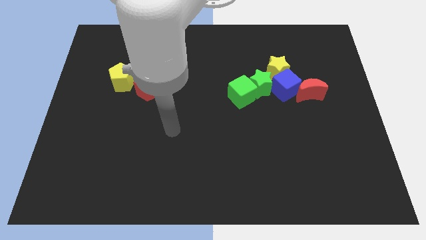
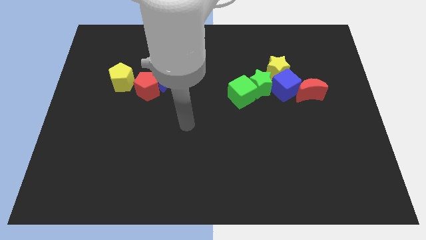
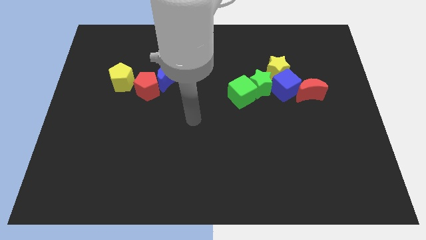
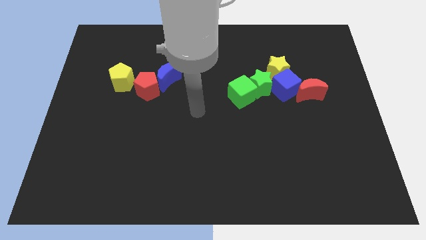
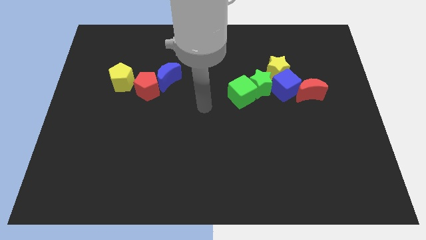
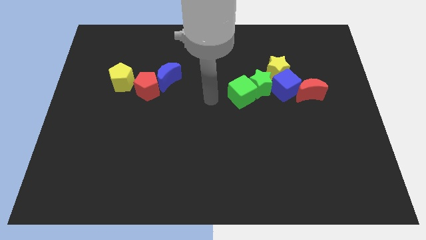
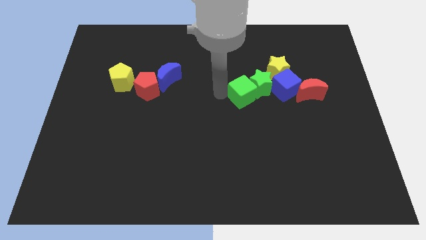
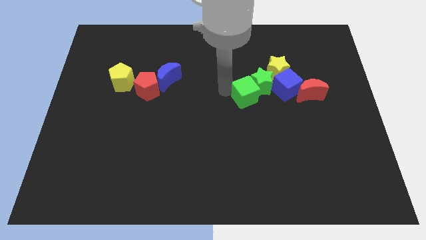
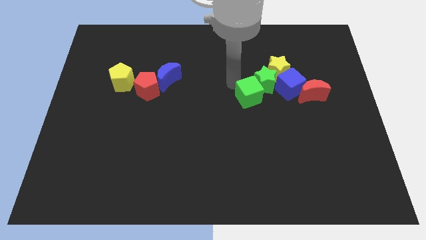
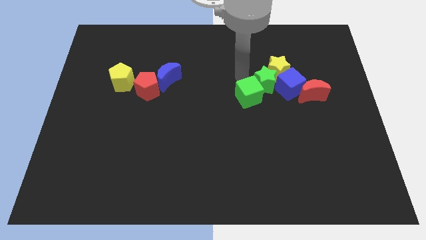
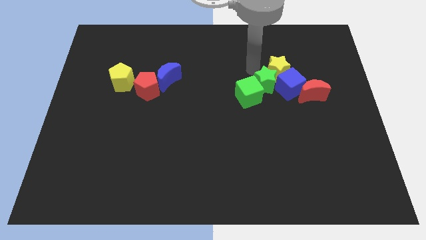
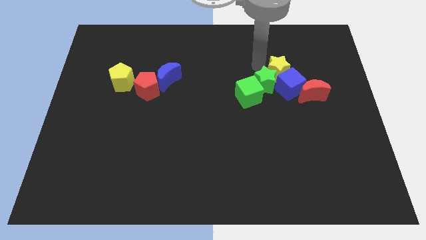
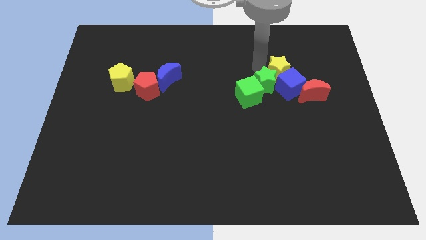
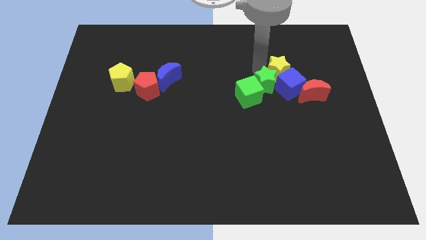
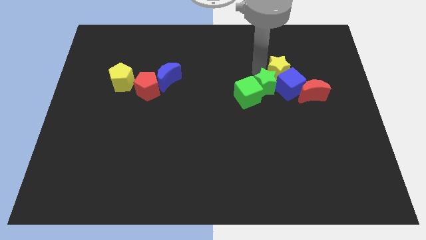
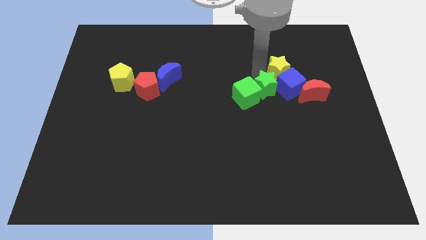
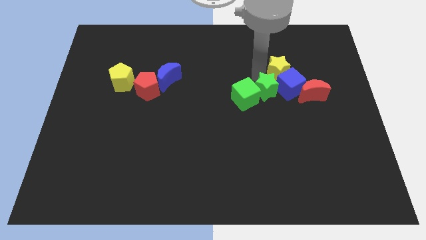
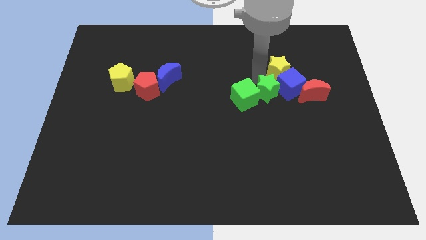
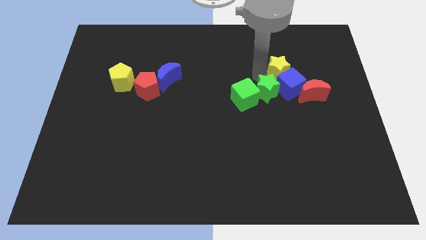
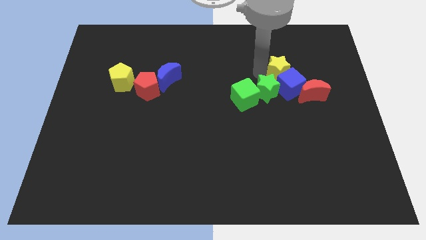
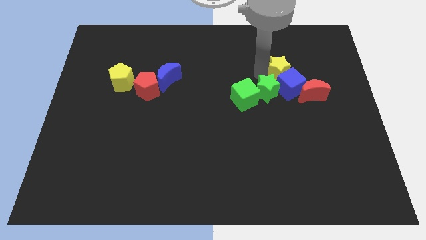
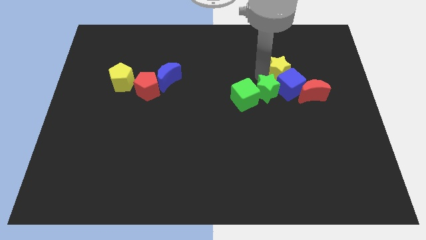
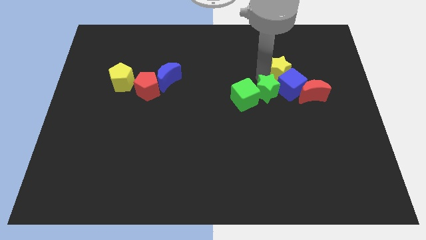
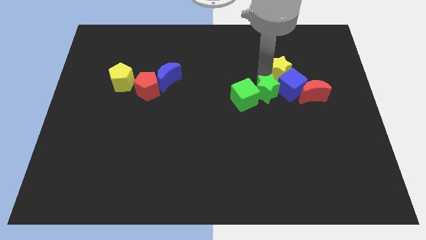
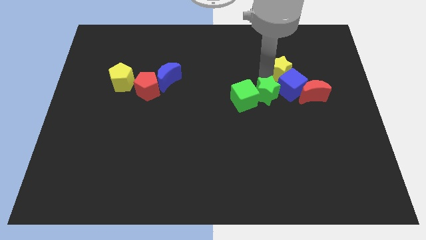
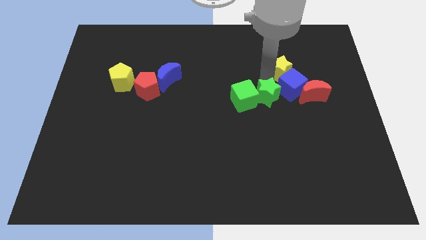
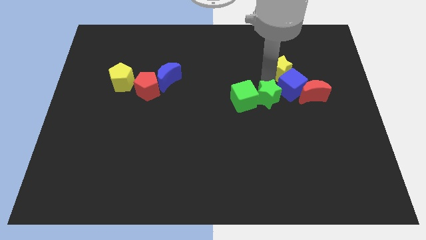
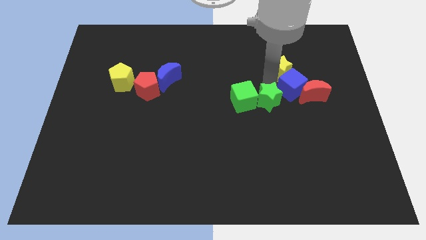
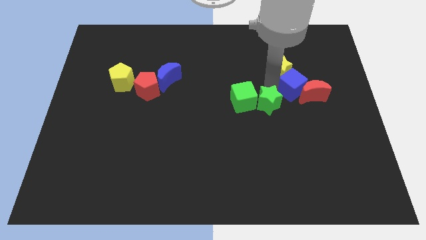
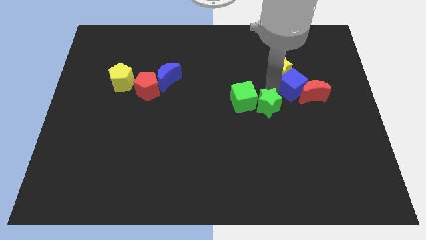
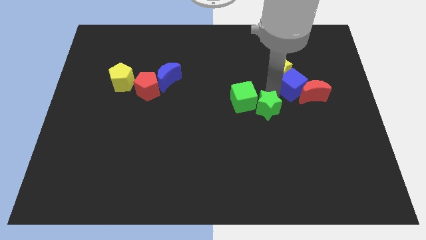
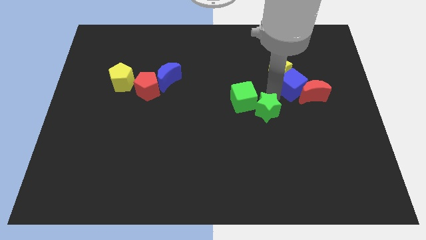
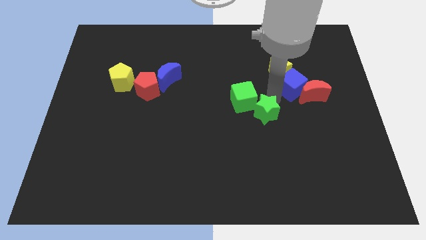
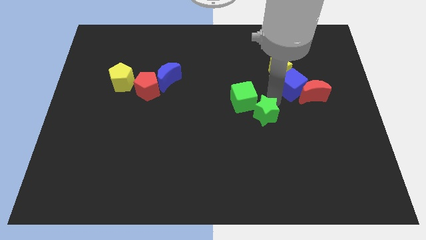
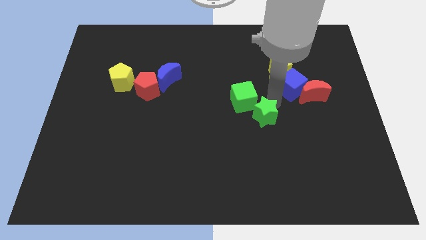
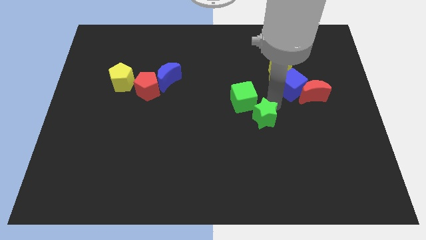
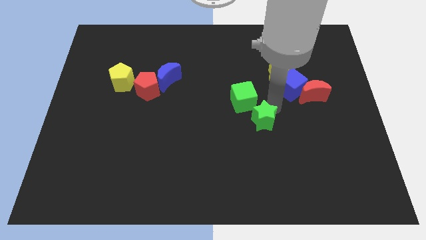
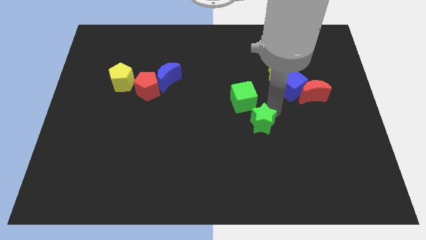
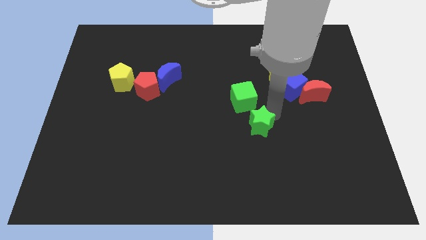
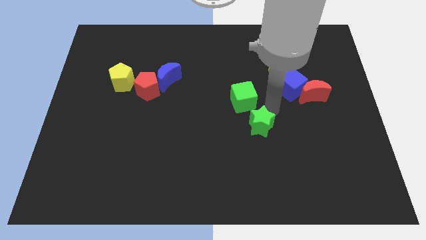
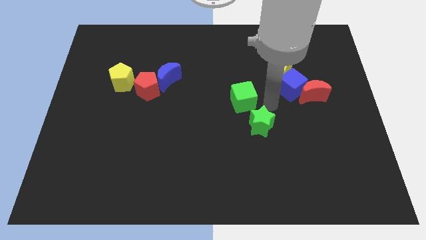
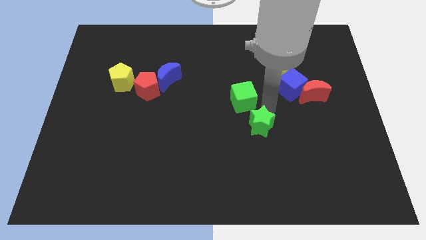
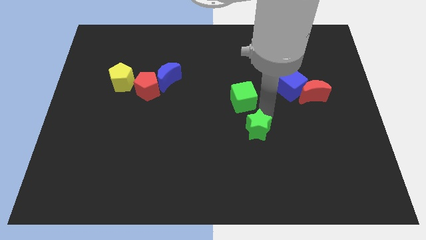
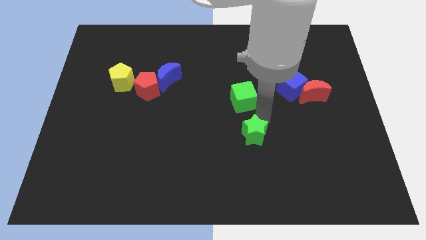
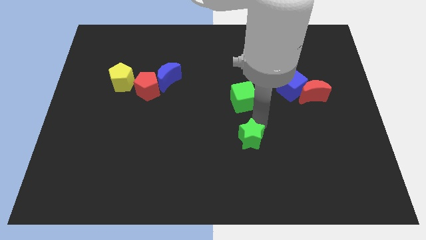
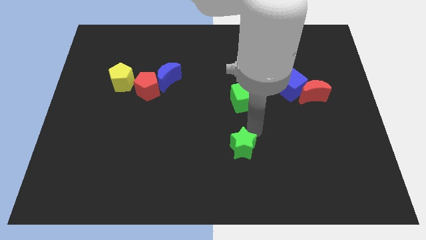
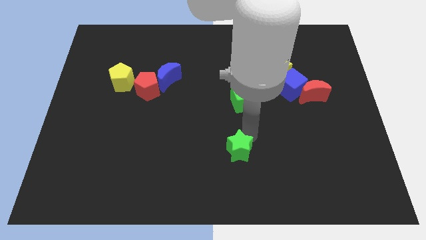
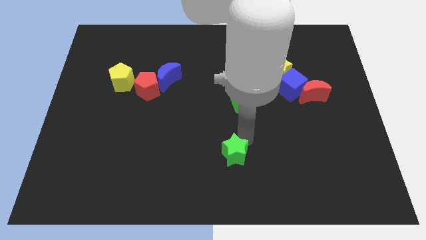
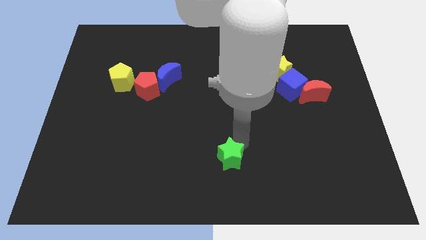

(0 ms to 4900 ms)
put the green star to the bottom side

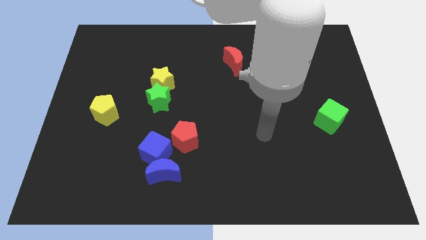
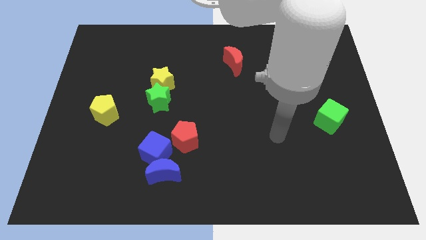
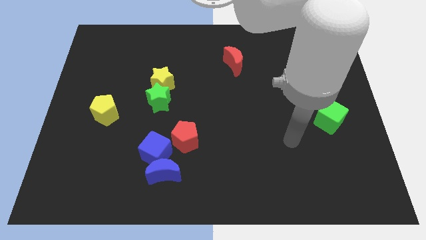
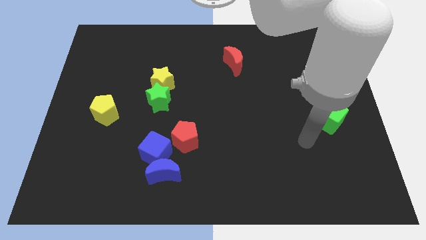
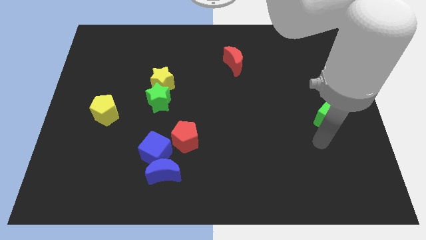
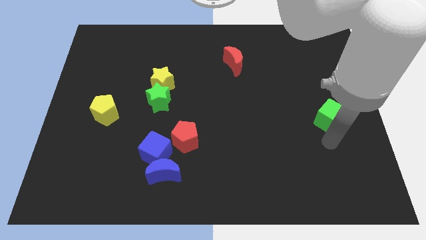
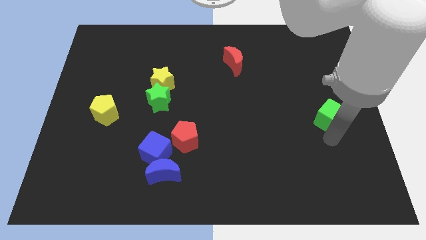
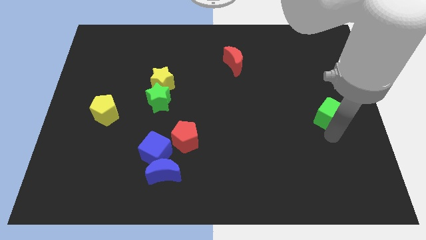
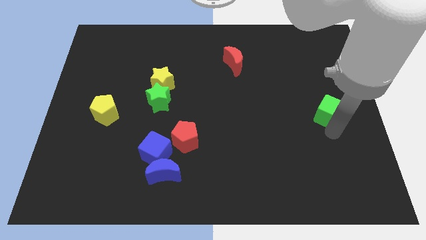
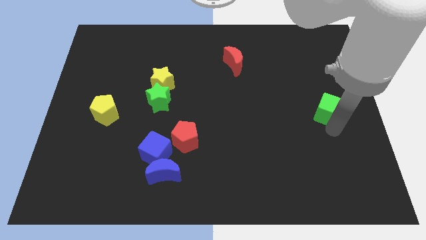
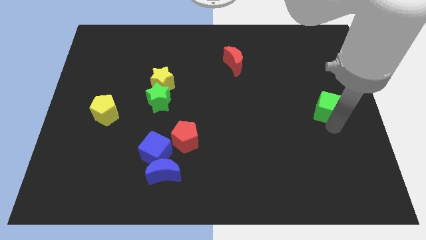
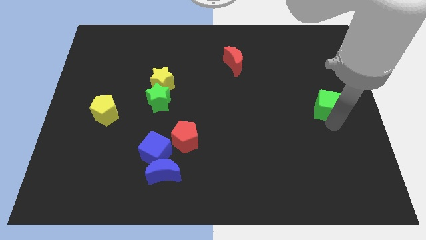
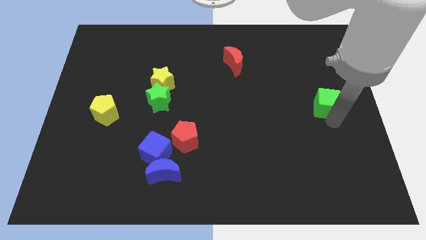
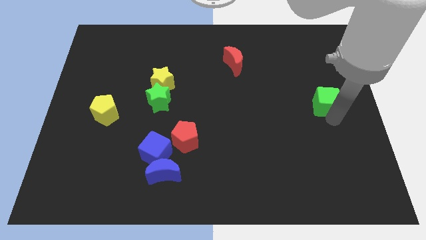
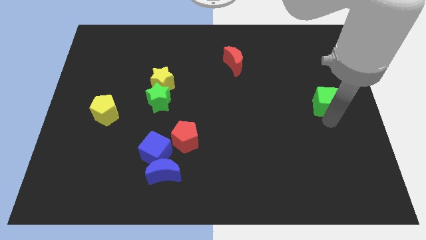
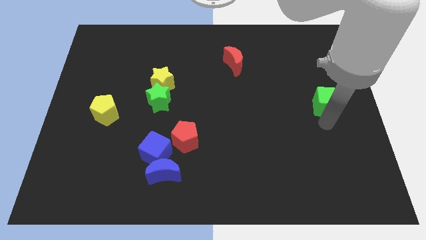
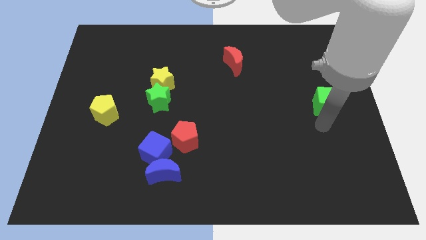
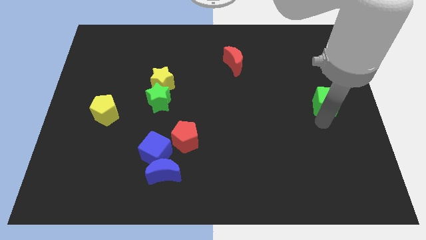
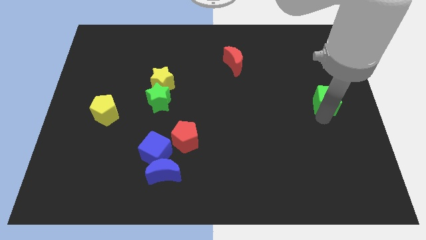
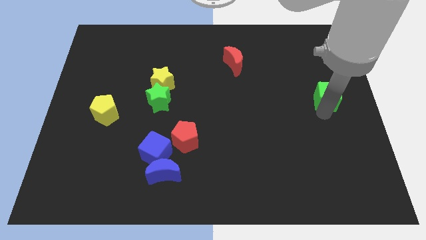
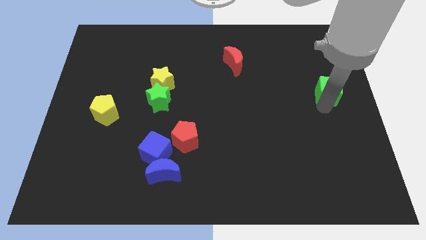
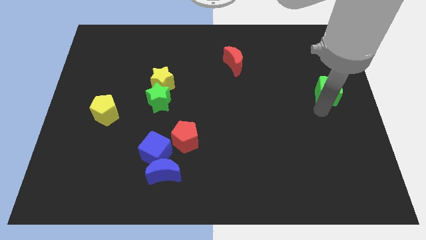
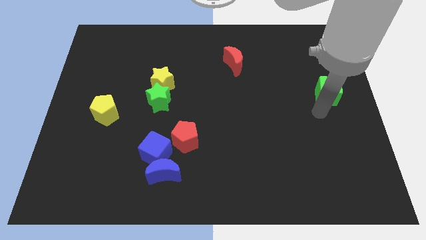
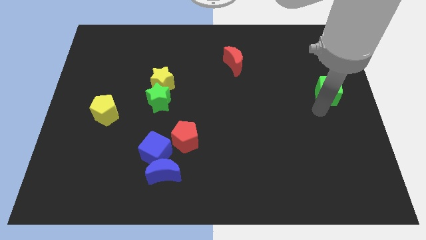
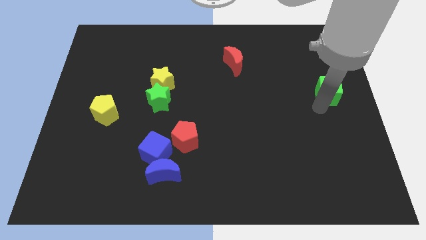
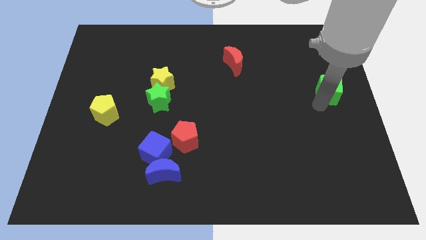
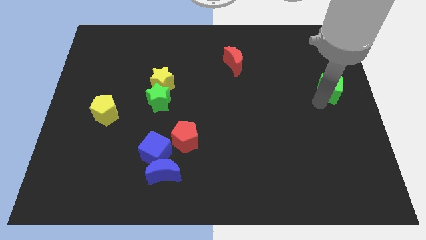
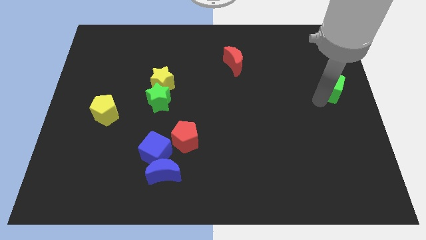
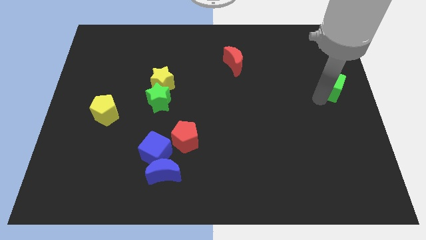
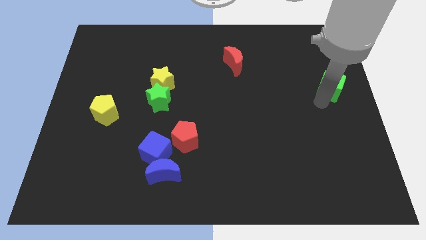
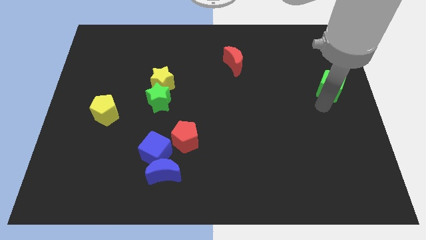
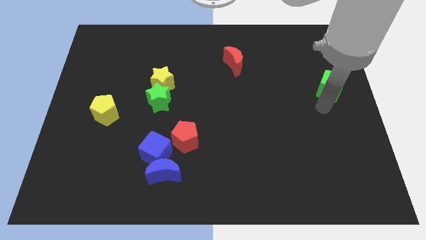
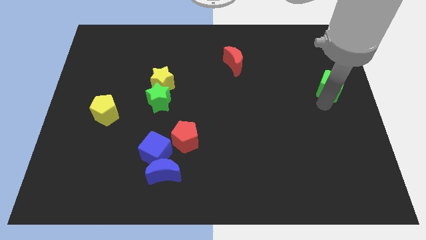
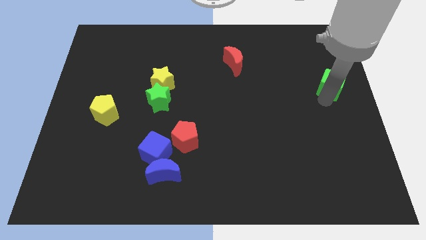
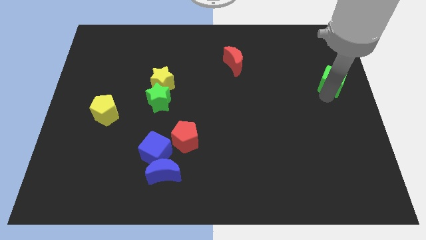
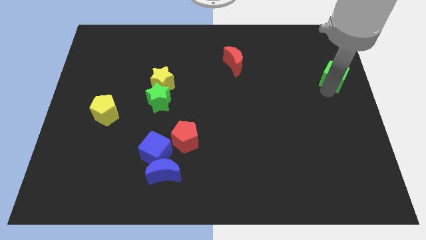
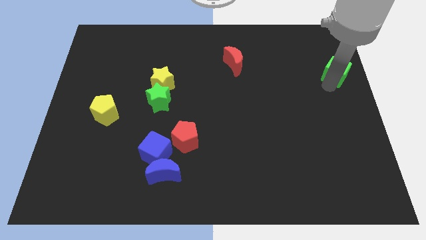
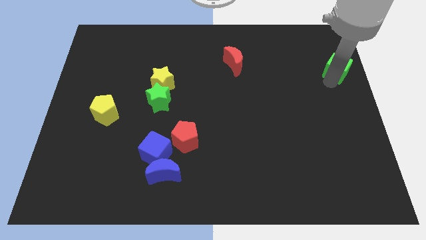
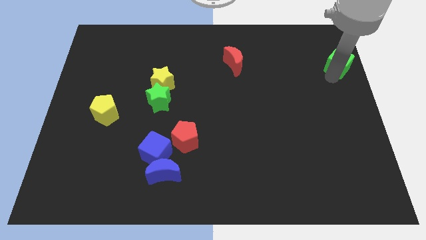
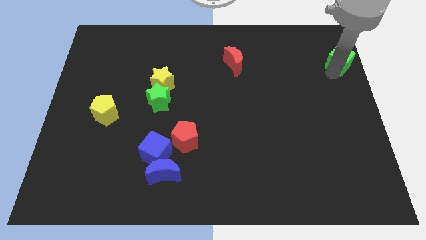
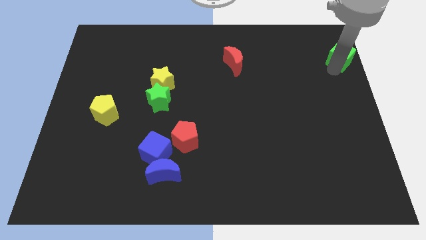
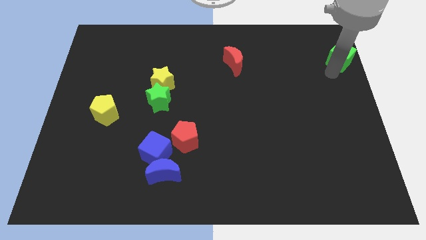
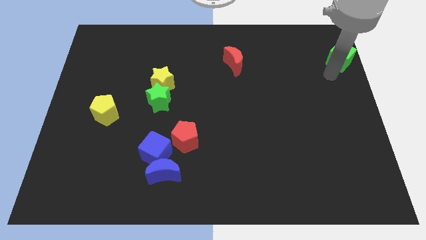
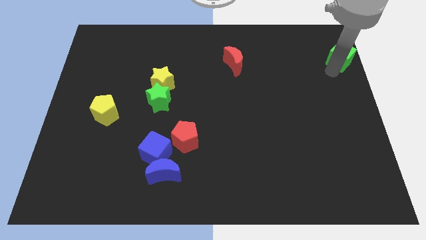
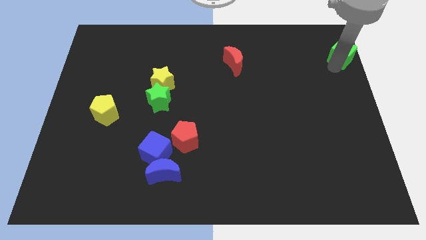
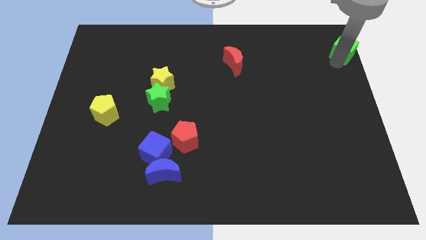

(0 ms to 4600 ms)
move the green cube to the top right corner
